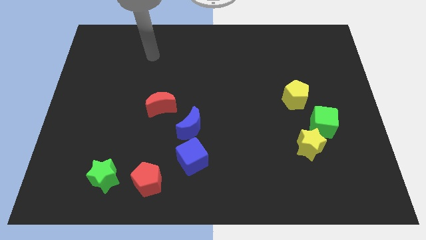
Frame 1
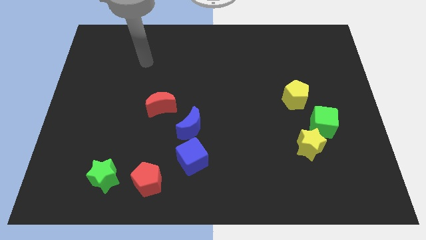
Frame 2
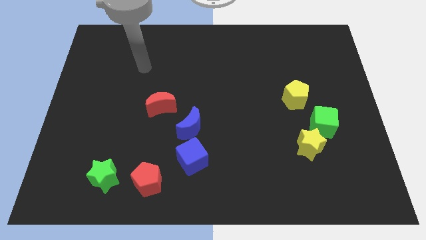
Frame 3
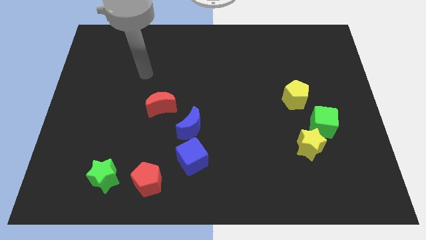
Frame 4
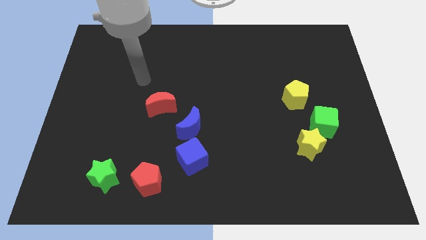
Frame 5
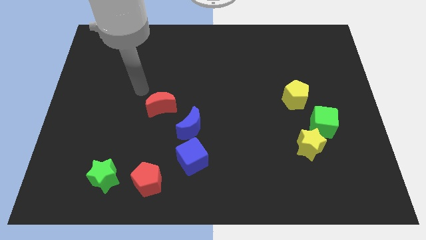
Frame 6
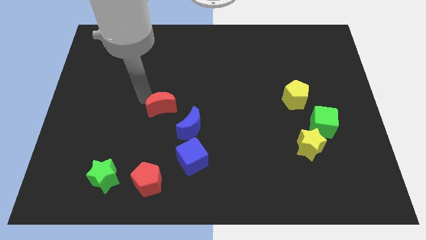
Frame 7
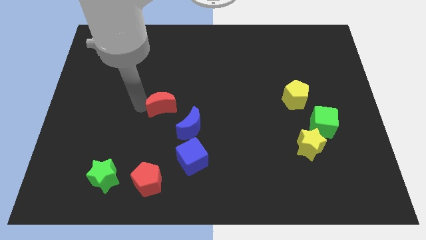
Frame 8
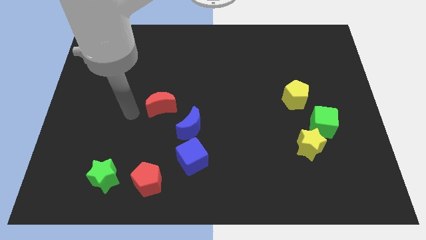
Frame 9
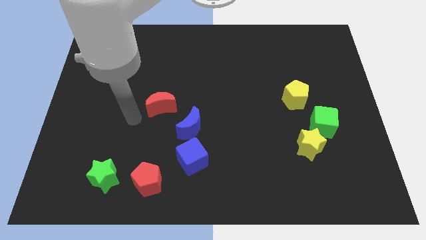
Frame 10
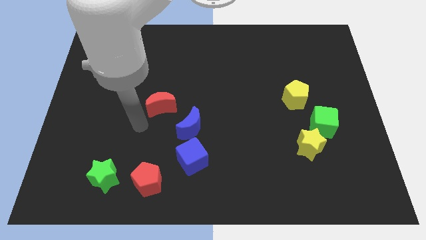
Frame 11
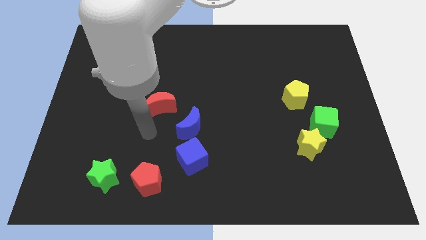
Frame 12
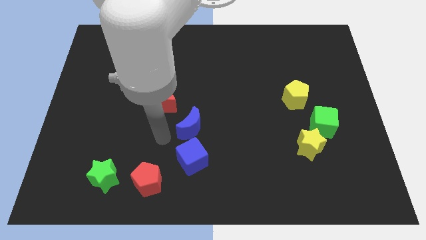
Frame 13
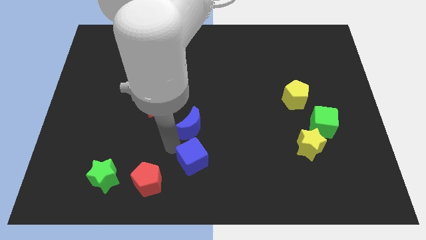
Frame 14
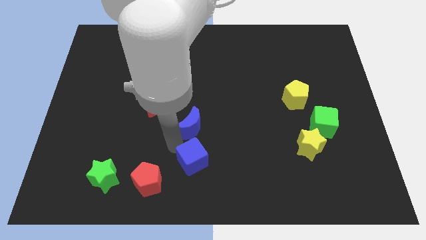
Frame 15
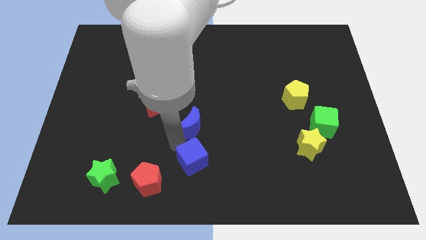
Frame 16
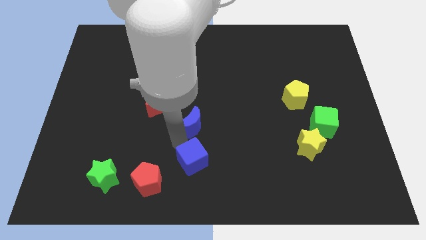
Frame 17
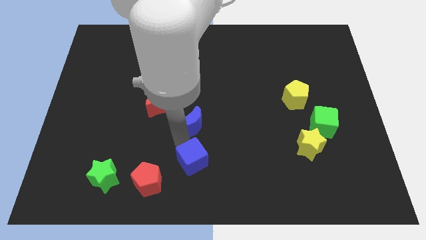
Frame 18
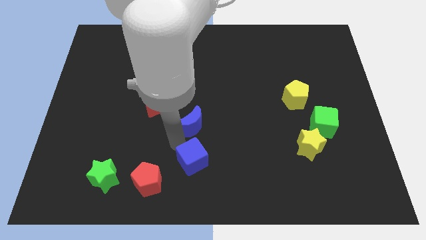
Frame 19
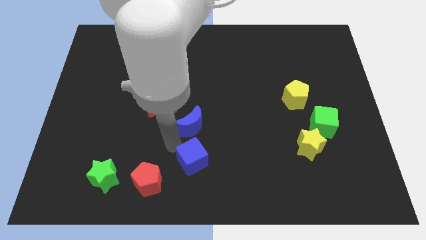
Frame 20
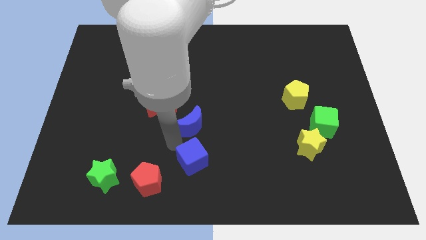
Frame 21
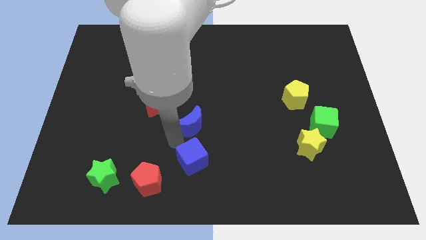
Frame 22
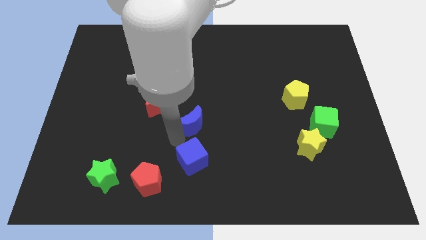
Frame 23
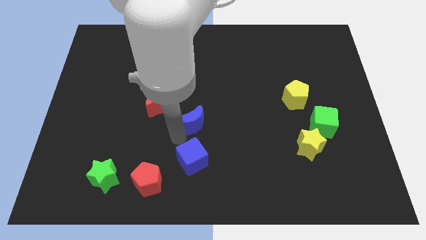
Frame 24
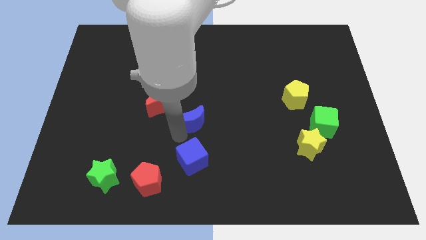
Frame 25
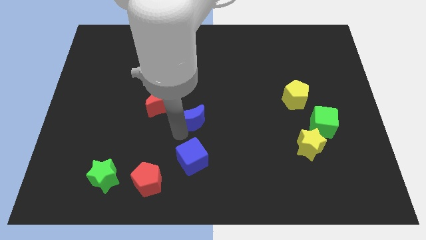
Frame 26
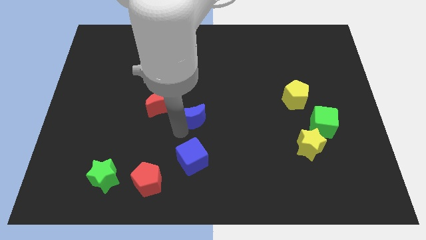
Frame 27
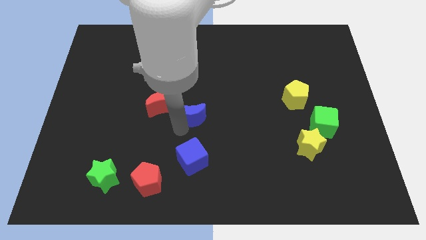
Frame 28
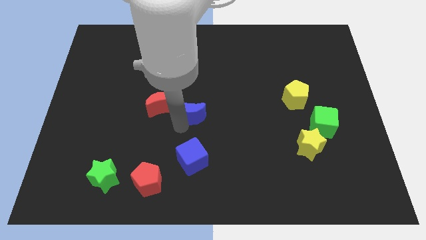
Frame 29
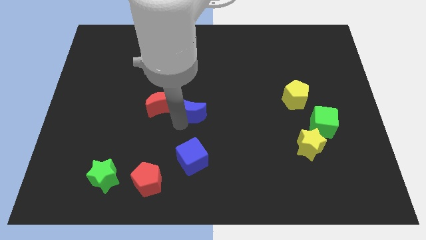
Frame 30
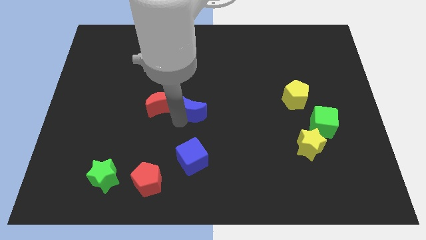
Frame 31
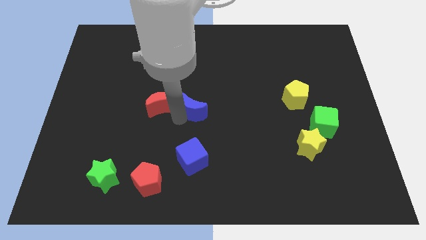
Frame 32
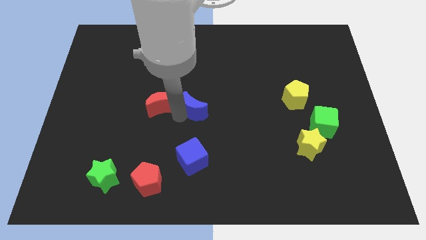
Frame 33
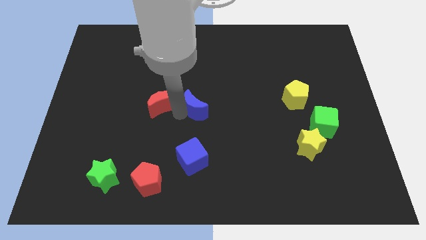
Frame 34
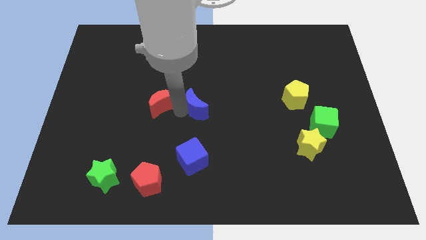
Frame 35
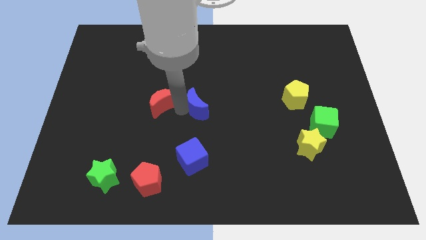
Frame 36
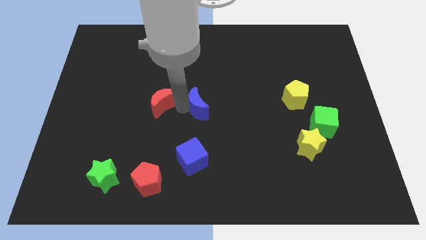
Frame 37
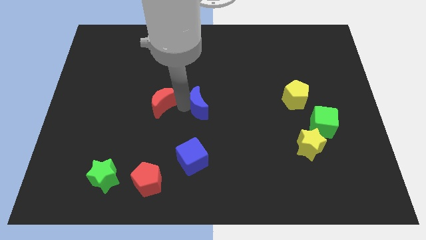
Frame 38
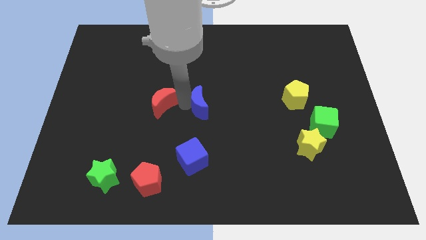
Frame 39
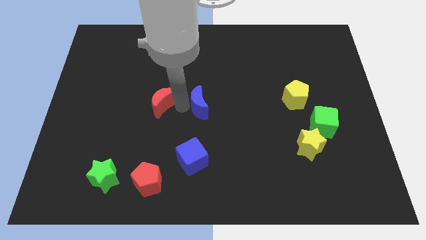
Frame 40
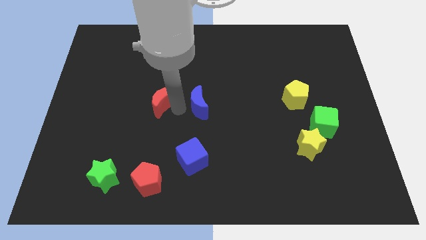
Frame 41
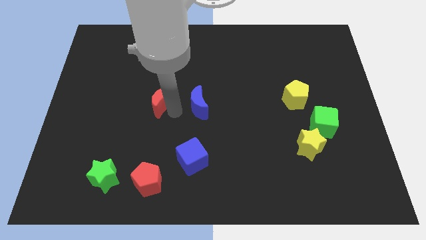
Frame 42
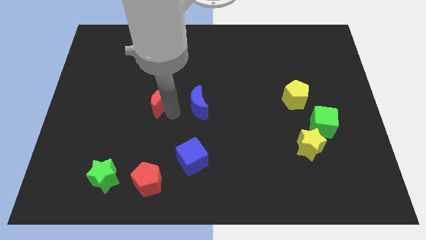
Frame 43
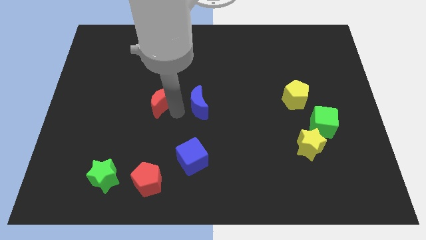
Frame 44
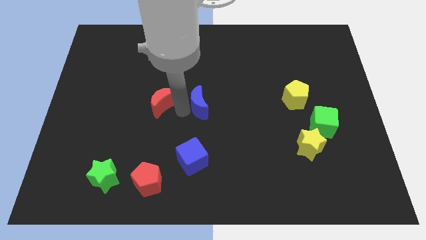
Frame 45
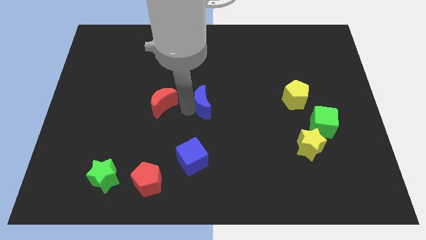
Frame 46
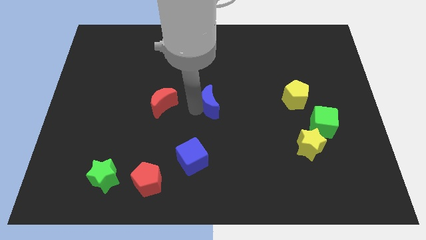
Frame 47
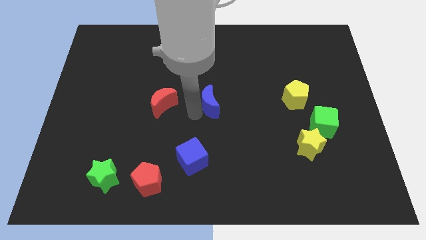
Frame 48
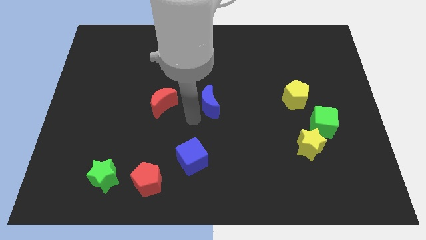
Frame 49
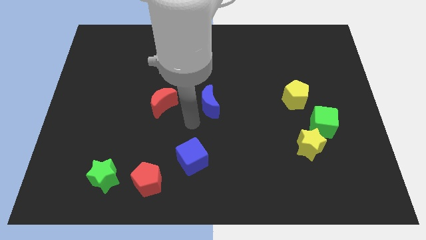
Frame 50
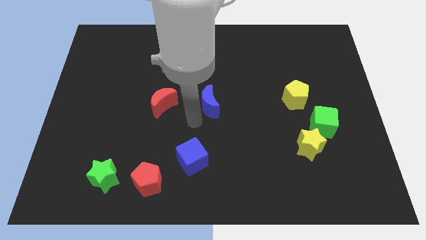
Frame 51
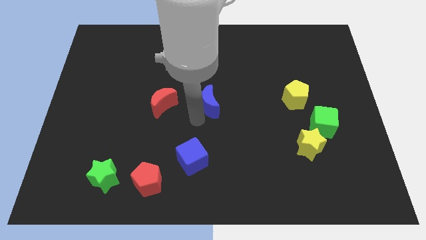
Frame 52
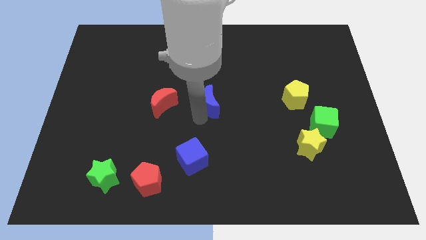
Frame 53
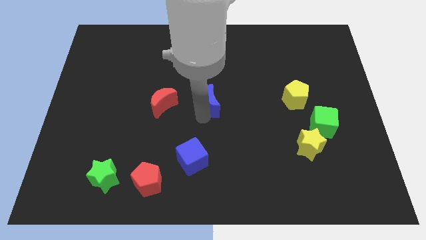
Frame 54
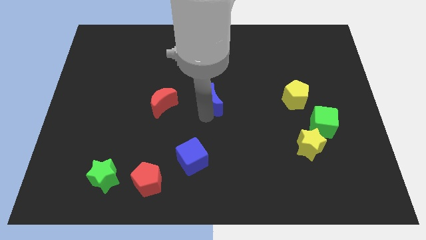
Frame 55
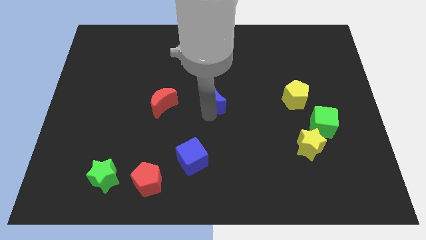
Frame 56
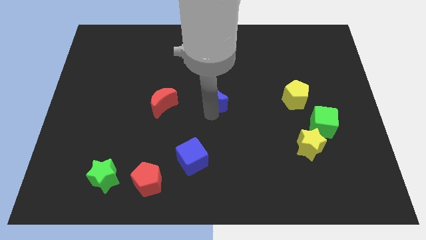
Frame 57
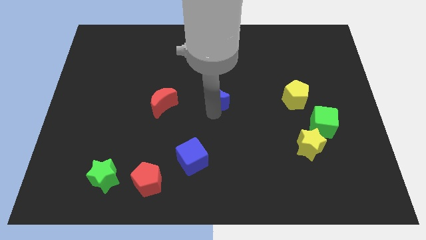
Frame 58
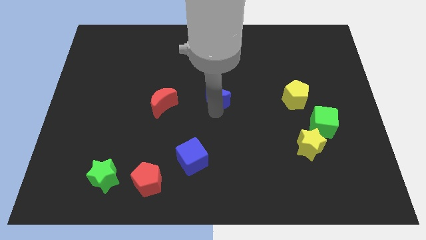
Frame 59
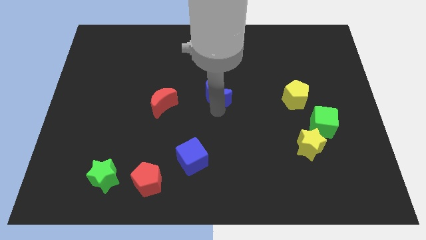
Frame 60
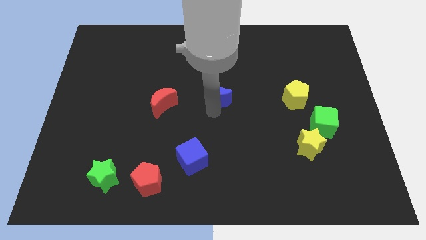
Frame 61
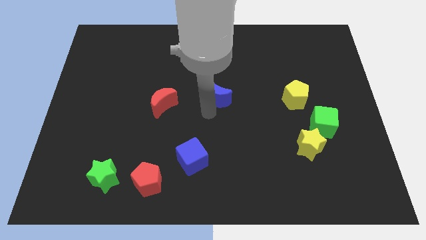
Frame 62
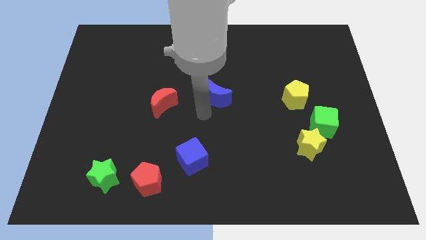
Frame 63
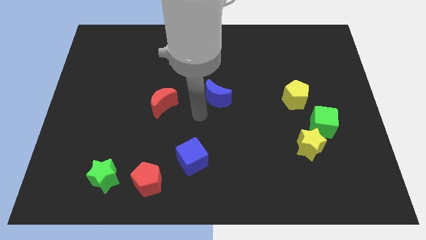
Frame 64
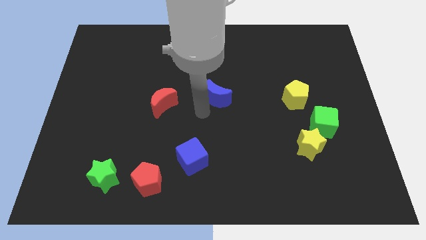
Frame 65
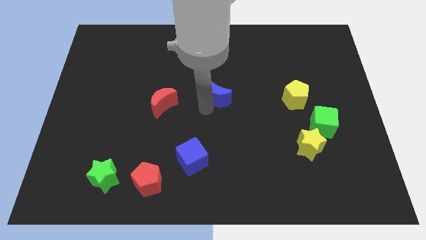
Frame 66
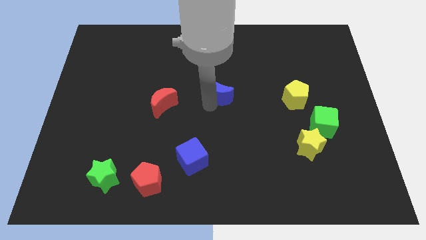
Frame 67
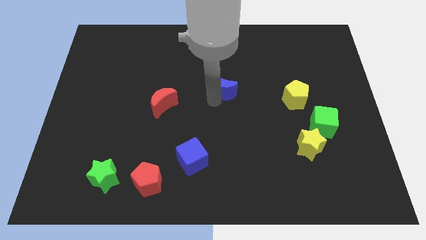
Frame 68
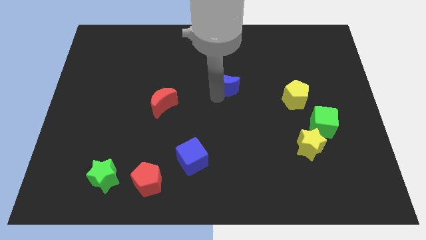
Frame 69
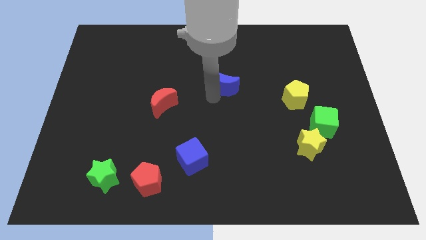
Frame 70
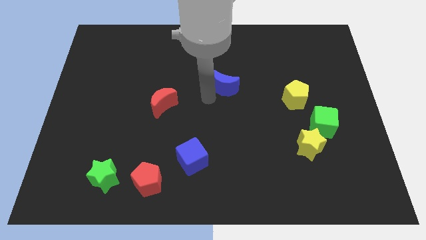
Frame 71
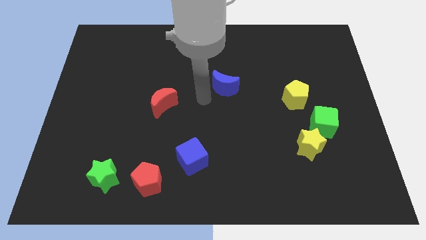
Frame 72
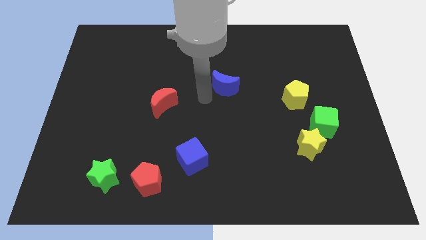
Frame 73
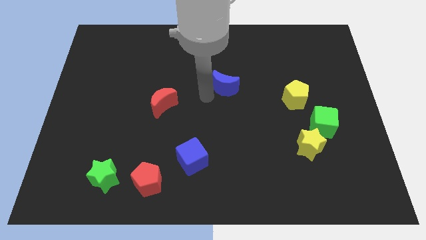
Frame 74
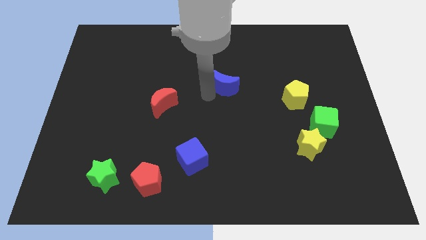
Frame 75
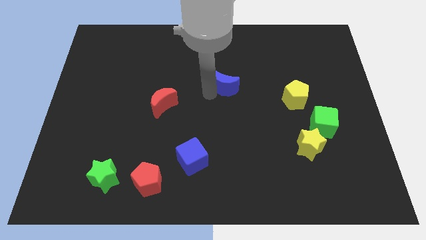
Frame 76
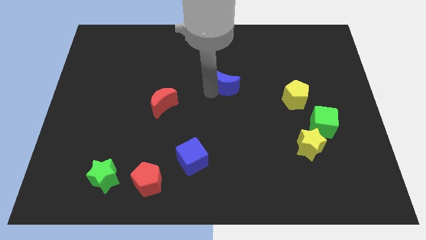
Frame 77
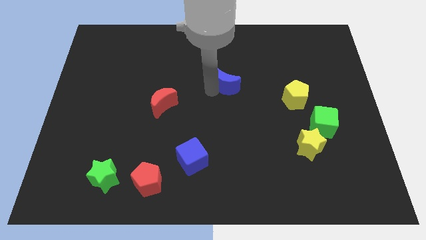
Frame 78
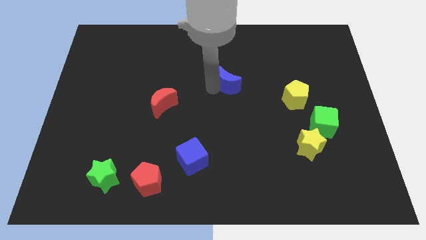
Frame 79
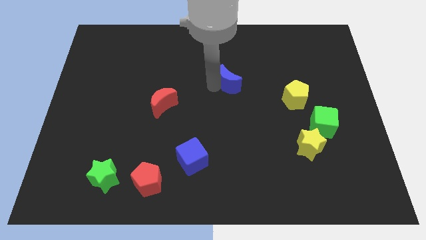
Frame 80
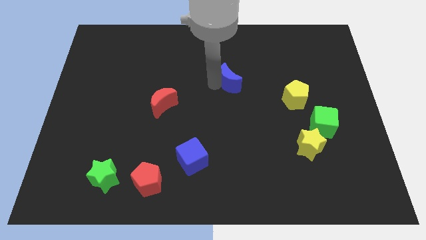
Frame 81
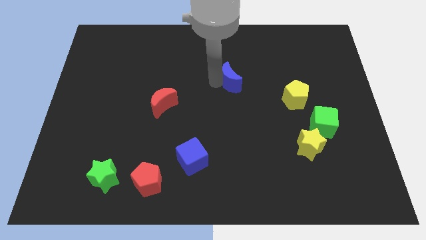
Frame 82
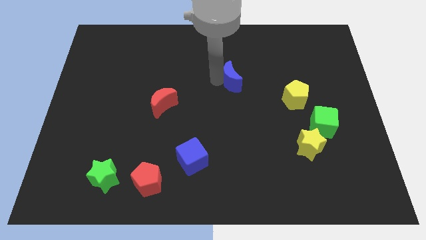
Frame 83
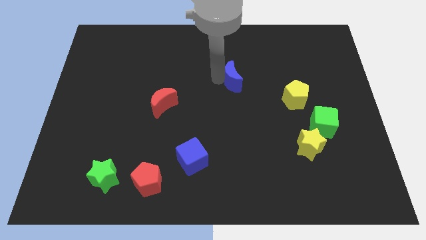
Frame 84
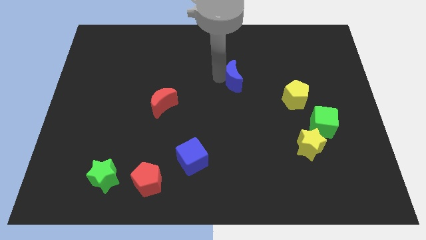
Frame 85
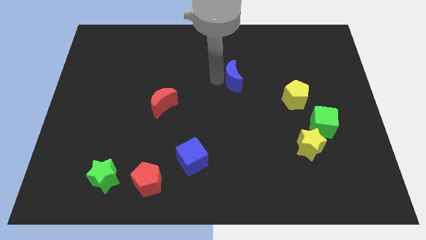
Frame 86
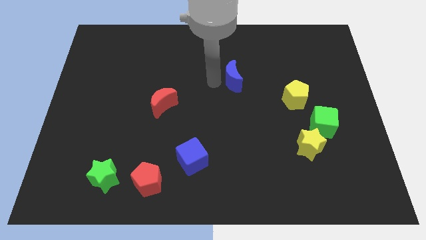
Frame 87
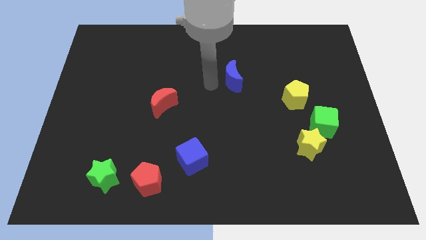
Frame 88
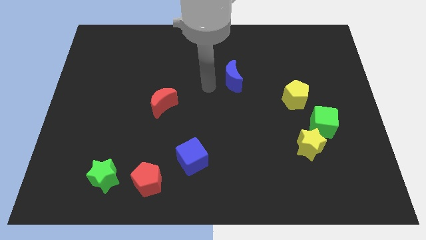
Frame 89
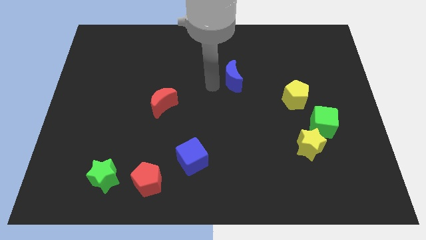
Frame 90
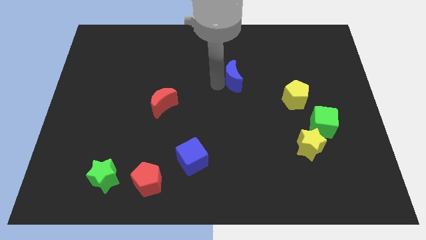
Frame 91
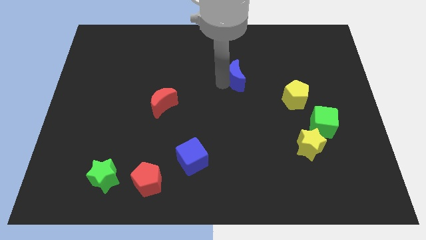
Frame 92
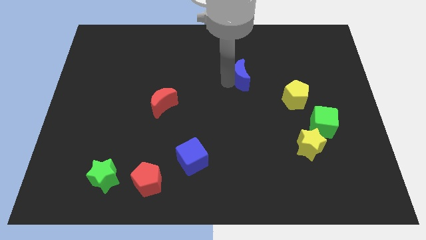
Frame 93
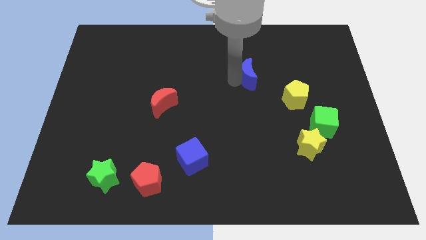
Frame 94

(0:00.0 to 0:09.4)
push the blue moon upwards and right diagonally
